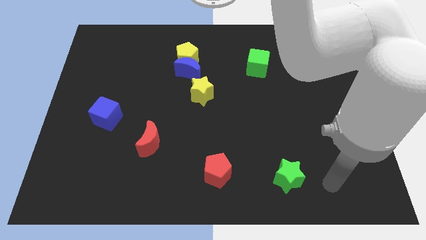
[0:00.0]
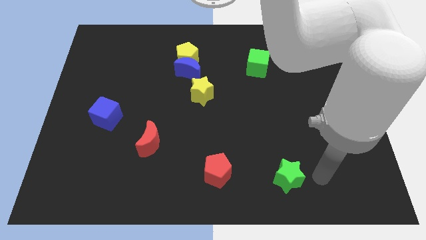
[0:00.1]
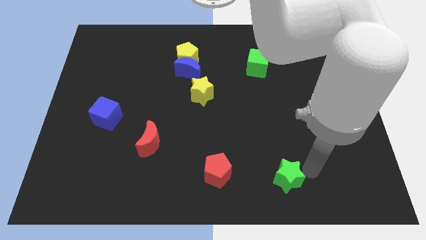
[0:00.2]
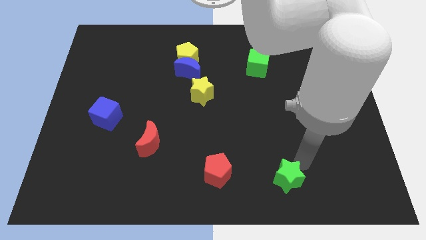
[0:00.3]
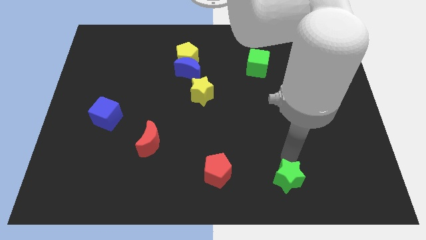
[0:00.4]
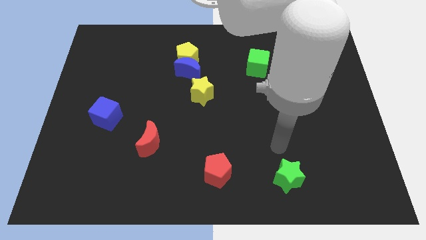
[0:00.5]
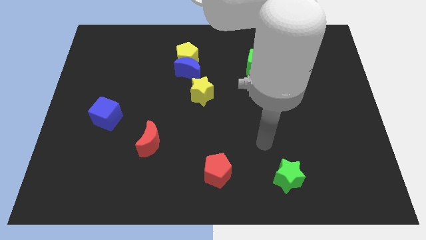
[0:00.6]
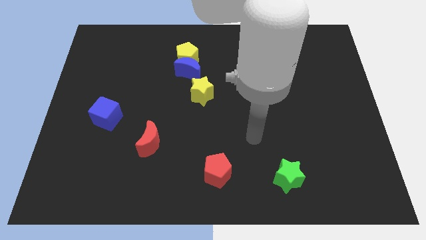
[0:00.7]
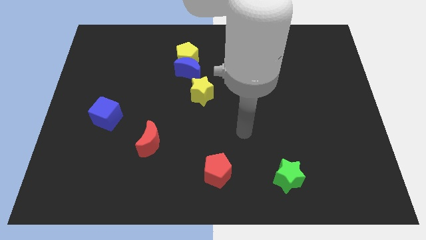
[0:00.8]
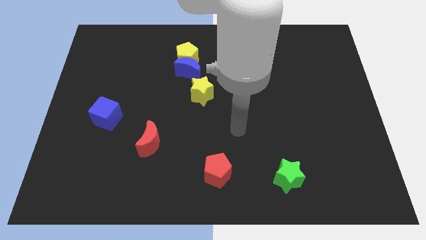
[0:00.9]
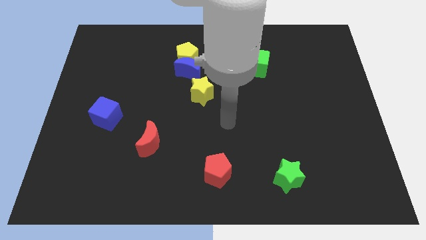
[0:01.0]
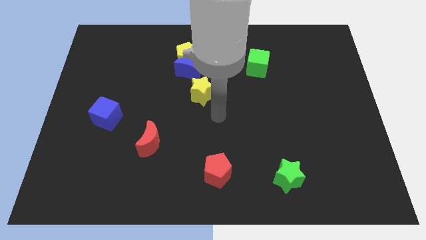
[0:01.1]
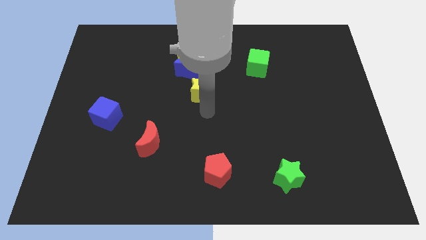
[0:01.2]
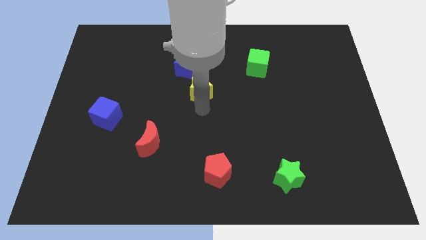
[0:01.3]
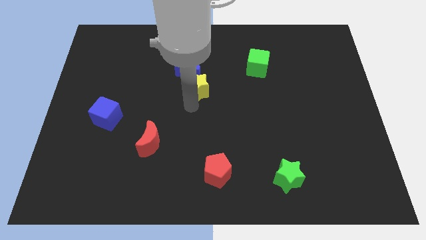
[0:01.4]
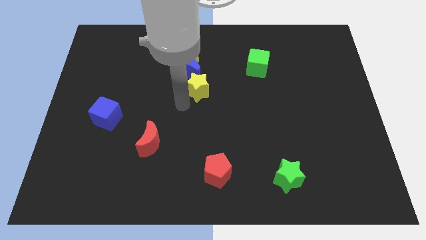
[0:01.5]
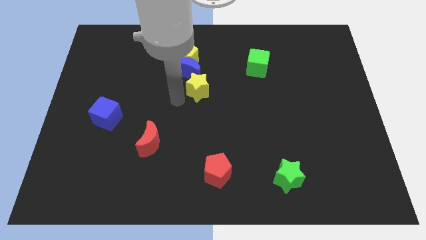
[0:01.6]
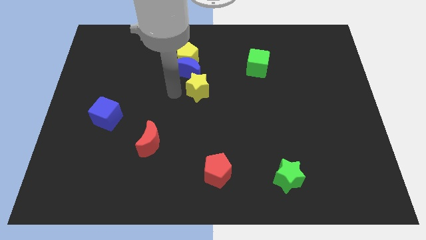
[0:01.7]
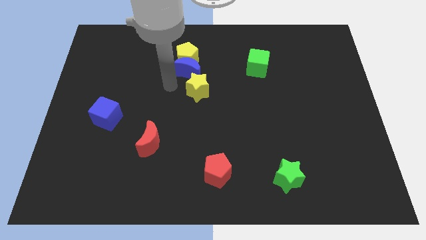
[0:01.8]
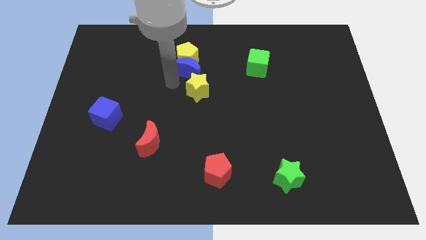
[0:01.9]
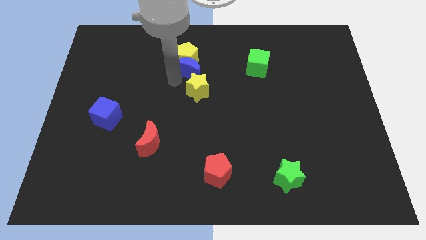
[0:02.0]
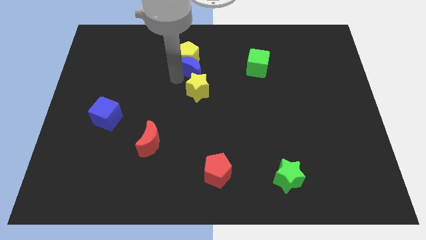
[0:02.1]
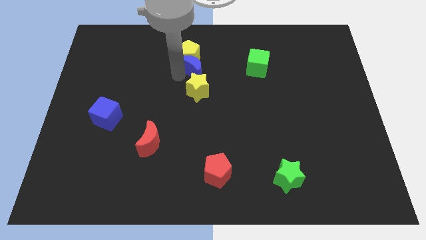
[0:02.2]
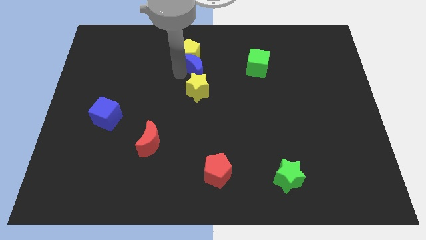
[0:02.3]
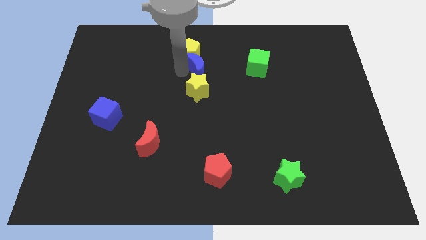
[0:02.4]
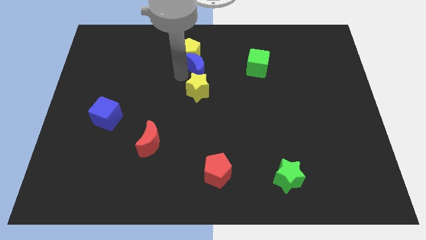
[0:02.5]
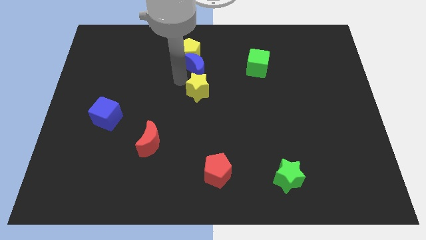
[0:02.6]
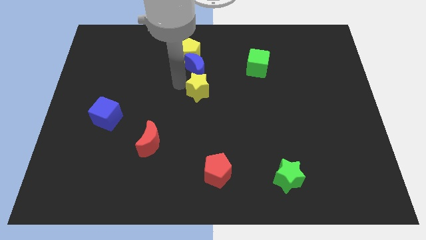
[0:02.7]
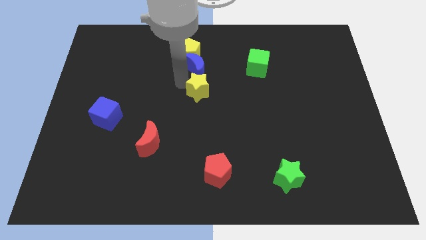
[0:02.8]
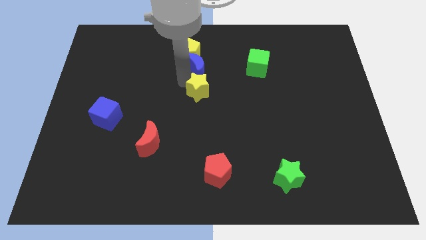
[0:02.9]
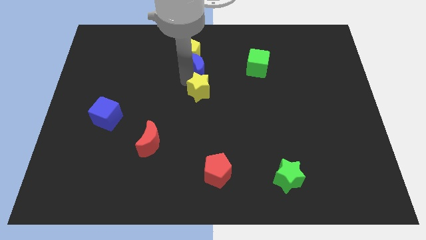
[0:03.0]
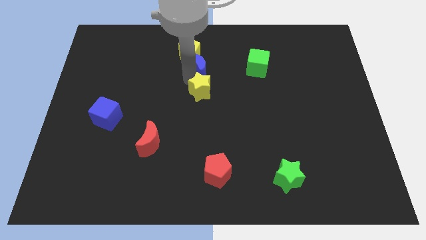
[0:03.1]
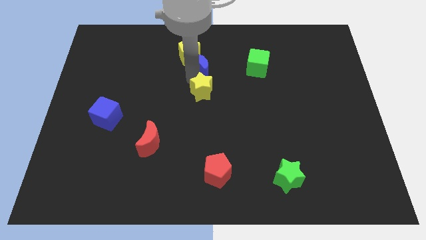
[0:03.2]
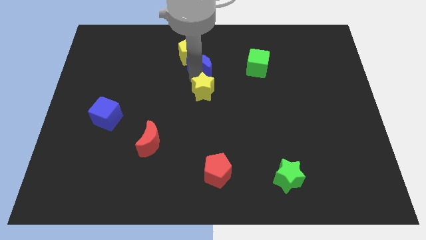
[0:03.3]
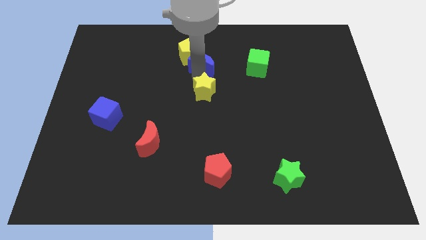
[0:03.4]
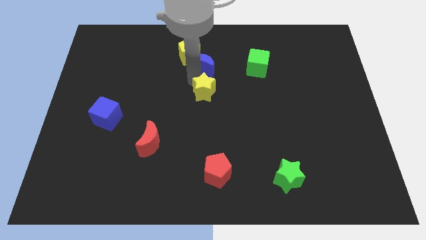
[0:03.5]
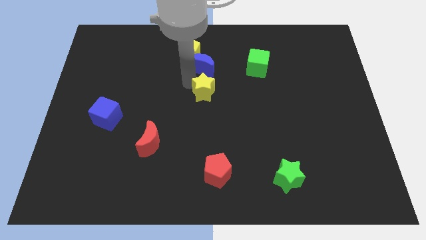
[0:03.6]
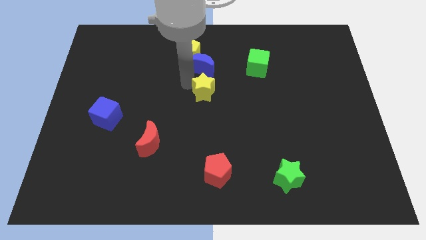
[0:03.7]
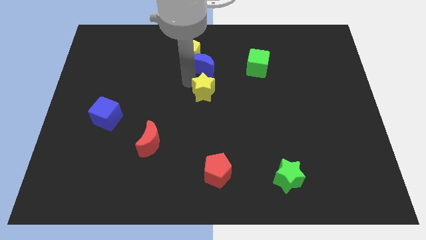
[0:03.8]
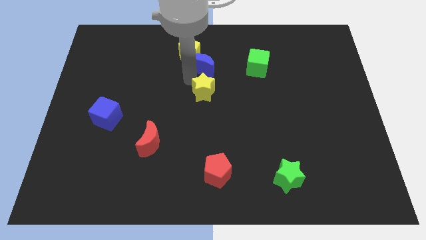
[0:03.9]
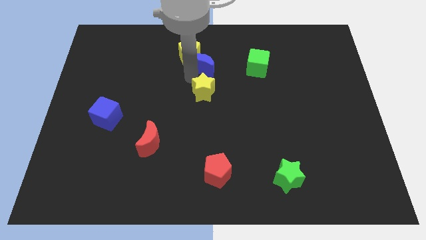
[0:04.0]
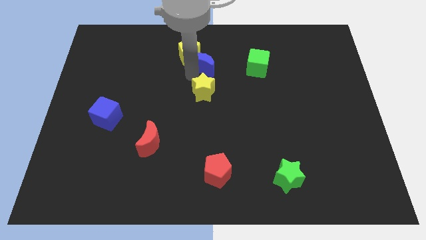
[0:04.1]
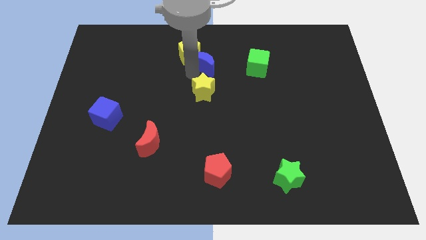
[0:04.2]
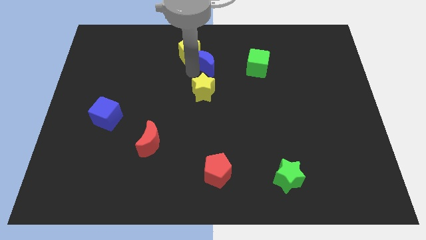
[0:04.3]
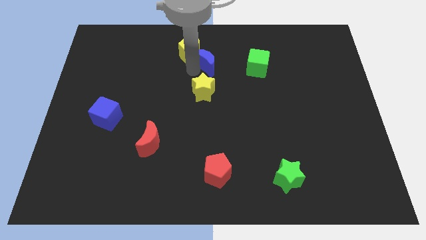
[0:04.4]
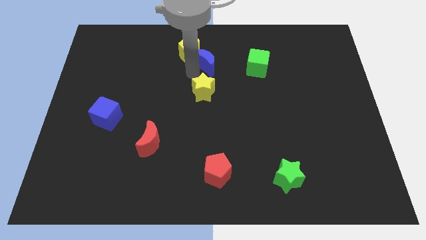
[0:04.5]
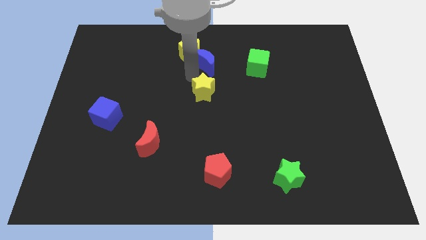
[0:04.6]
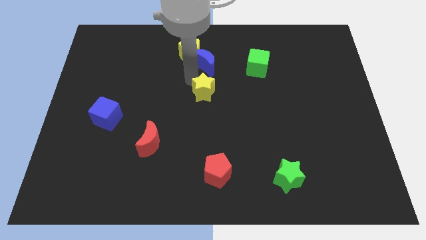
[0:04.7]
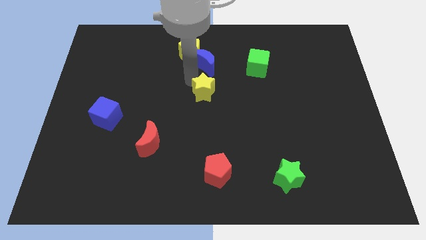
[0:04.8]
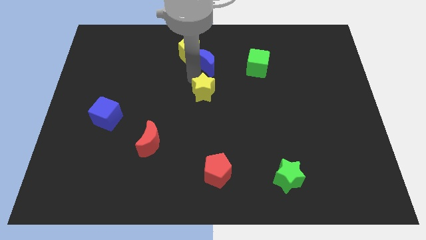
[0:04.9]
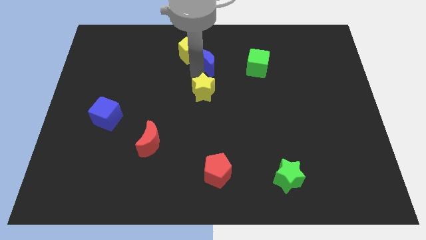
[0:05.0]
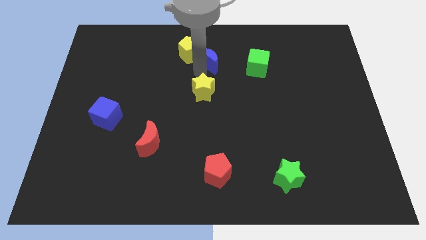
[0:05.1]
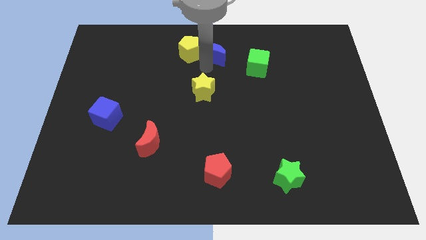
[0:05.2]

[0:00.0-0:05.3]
move the blue moon to the top side

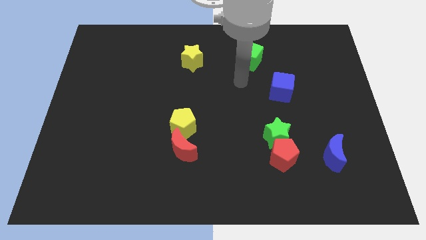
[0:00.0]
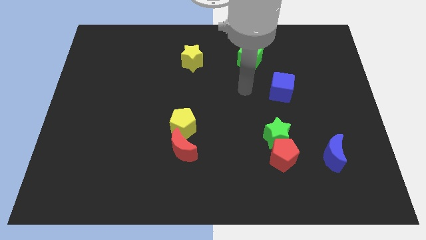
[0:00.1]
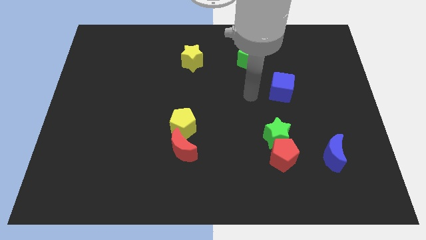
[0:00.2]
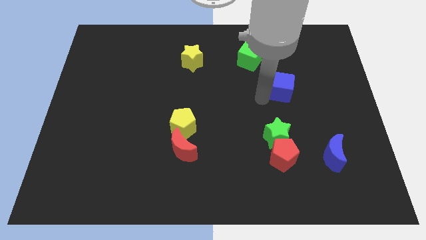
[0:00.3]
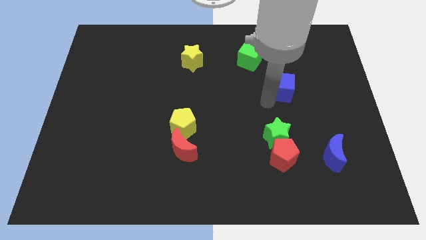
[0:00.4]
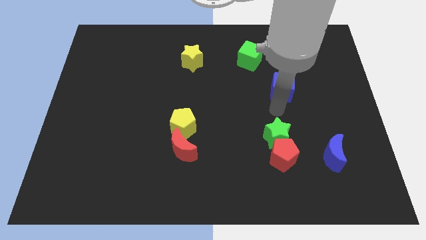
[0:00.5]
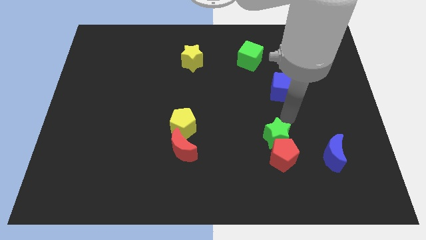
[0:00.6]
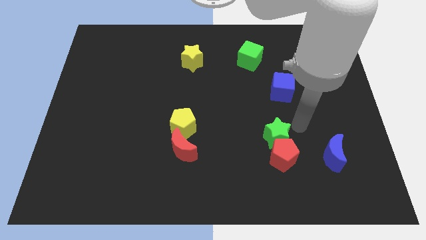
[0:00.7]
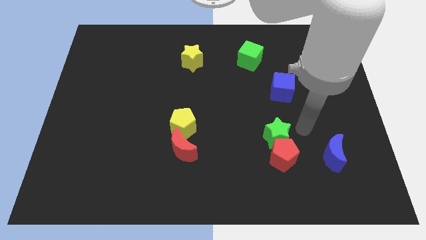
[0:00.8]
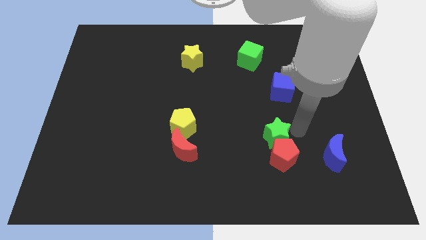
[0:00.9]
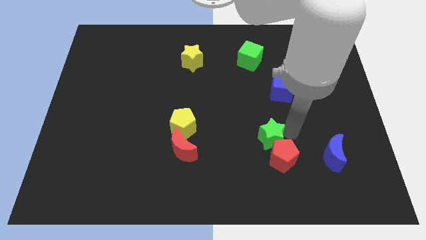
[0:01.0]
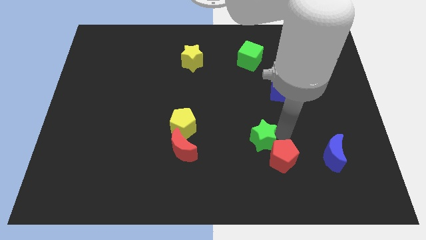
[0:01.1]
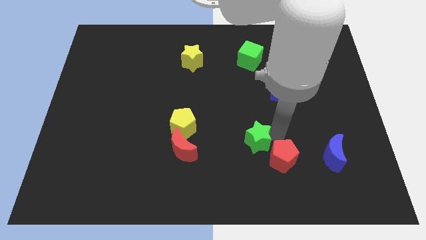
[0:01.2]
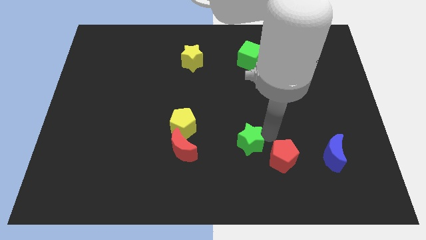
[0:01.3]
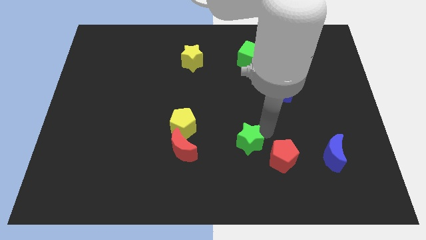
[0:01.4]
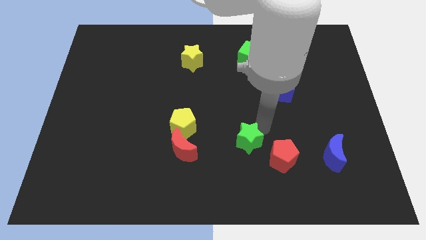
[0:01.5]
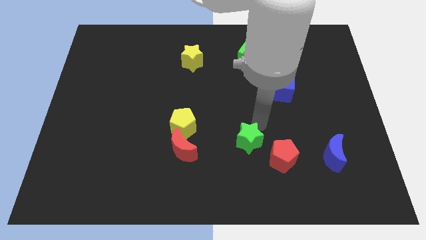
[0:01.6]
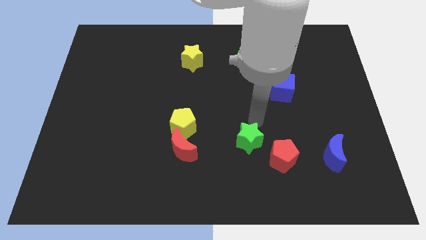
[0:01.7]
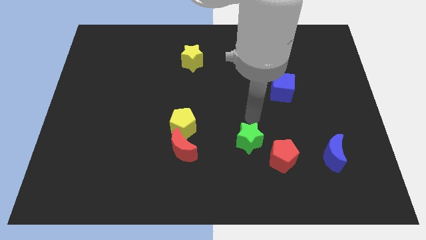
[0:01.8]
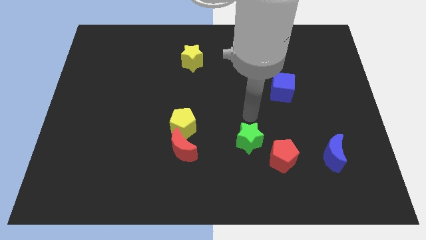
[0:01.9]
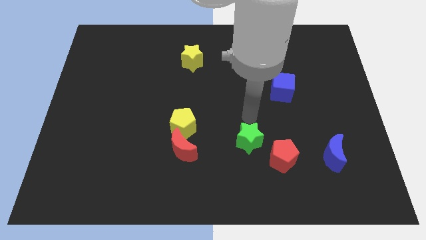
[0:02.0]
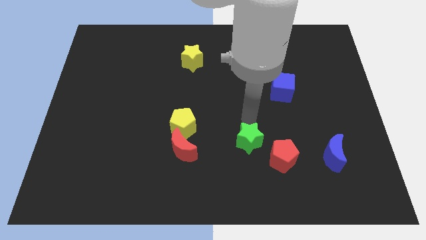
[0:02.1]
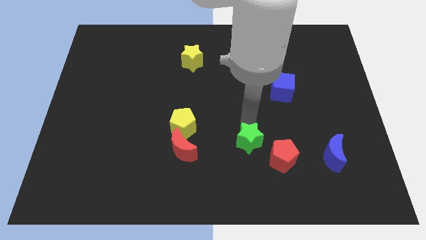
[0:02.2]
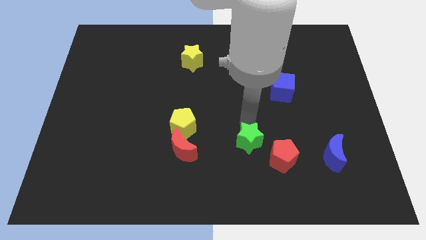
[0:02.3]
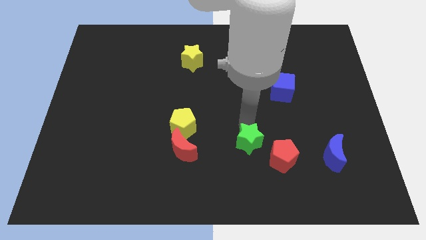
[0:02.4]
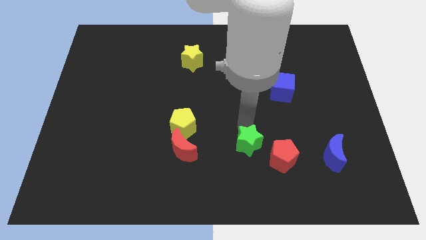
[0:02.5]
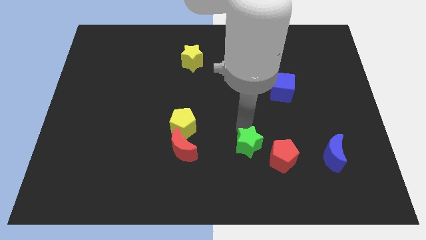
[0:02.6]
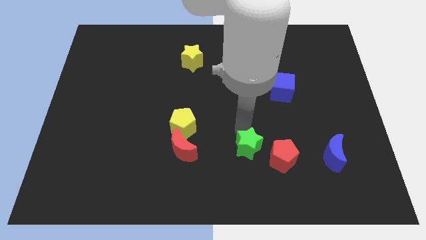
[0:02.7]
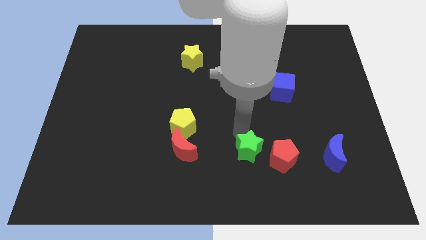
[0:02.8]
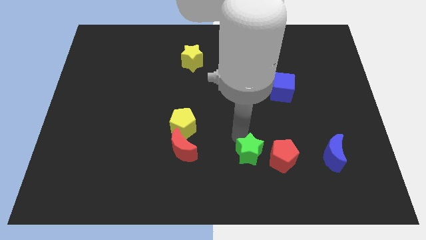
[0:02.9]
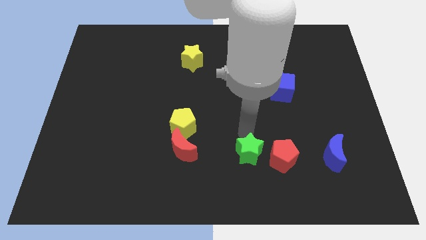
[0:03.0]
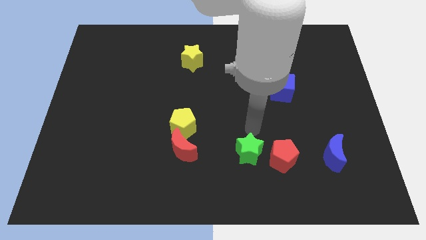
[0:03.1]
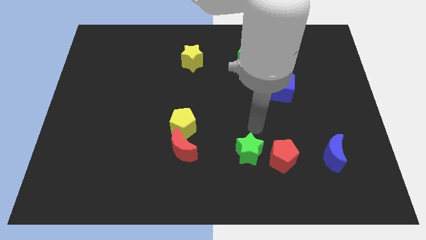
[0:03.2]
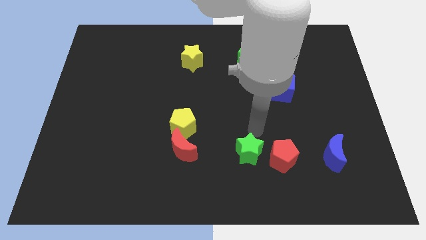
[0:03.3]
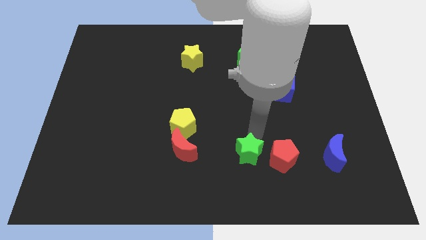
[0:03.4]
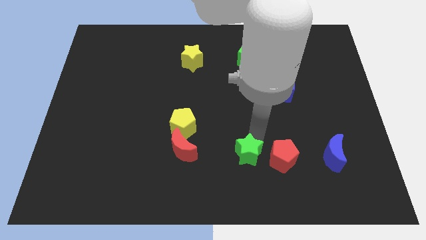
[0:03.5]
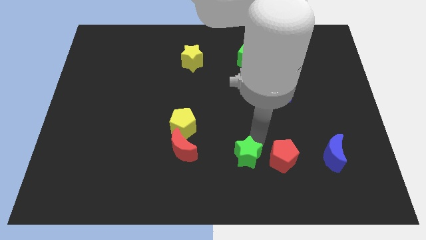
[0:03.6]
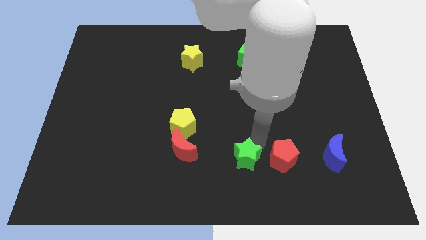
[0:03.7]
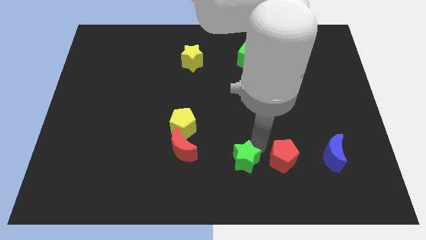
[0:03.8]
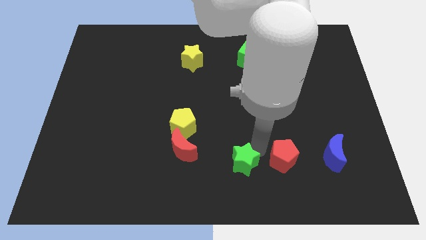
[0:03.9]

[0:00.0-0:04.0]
move the green star to the bottom side
